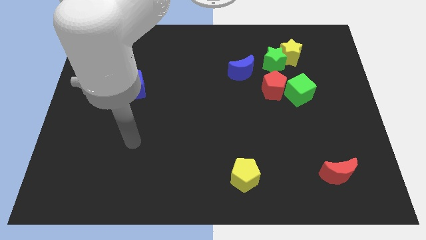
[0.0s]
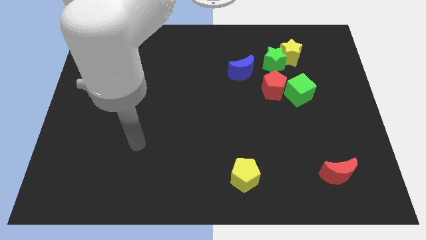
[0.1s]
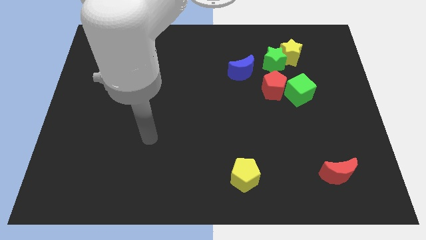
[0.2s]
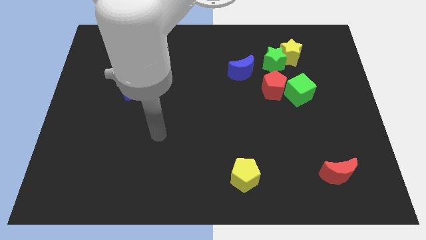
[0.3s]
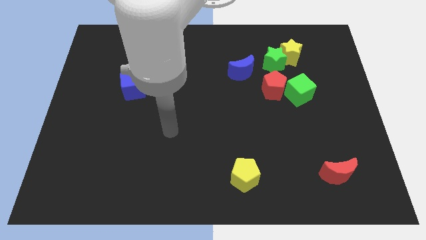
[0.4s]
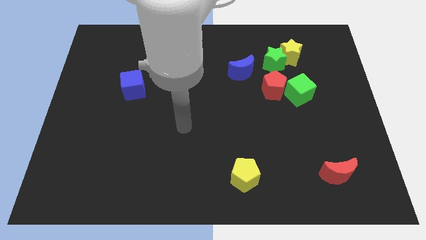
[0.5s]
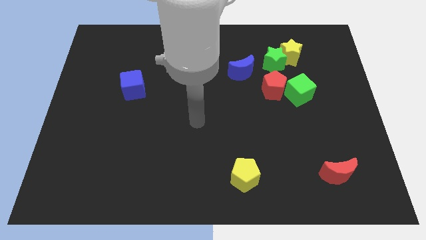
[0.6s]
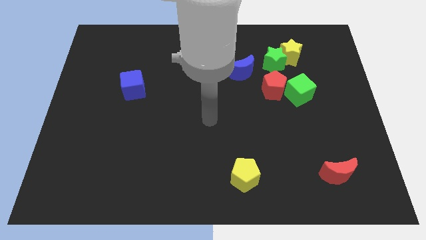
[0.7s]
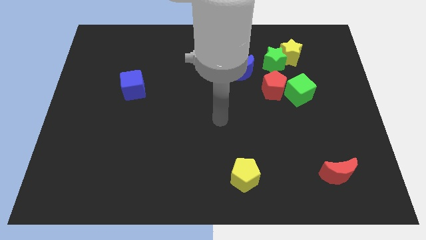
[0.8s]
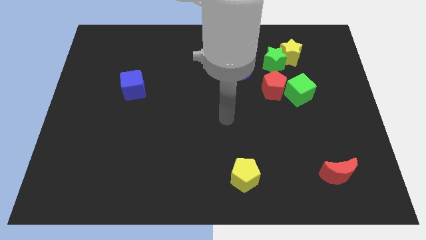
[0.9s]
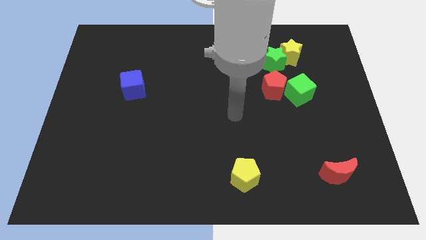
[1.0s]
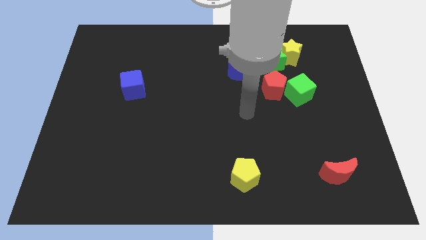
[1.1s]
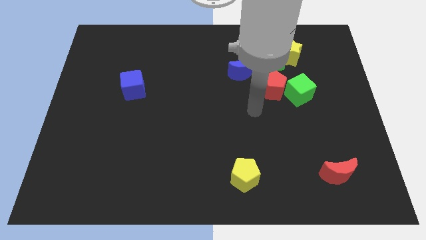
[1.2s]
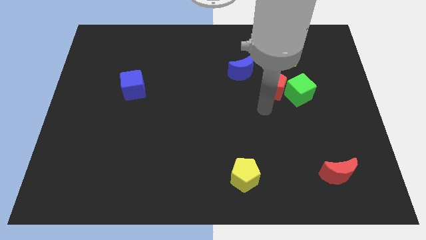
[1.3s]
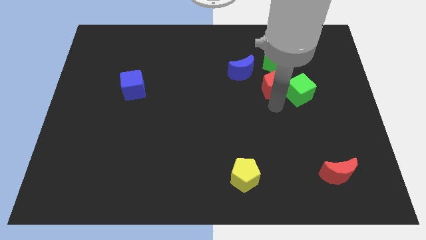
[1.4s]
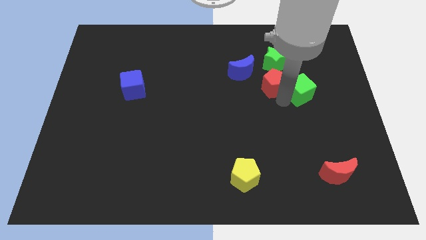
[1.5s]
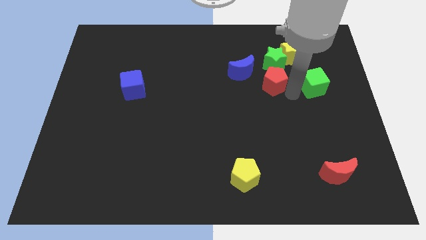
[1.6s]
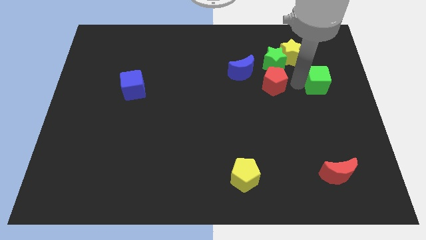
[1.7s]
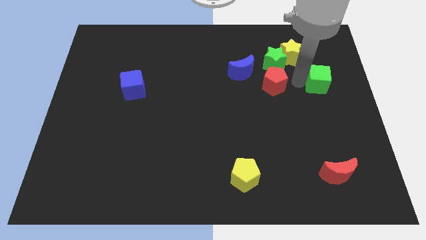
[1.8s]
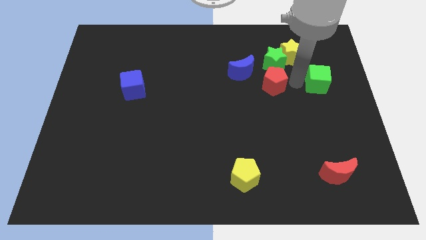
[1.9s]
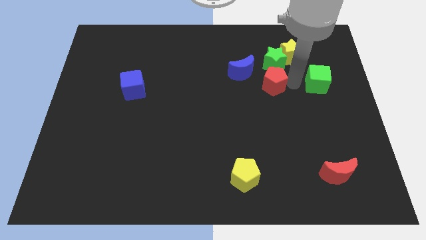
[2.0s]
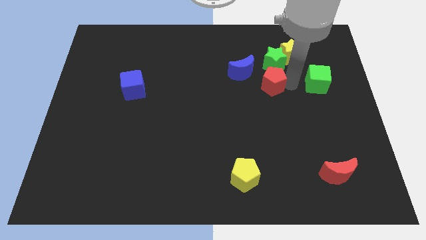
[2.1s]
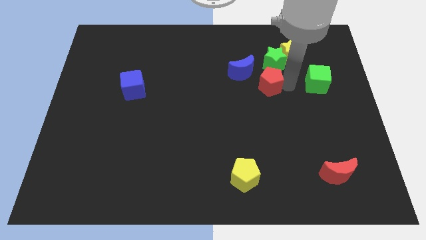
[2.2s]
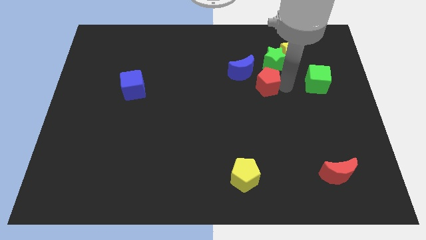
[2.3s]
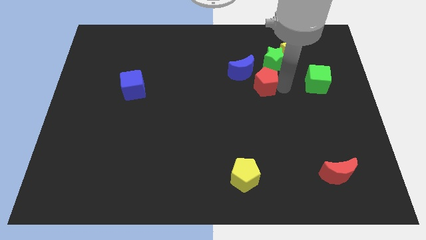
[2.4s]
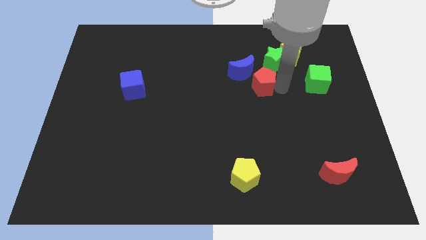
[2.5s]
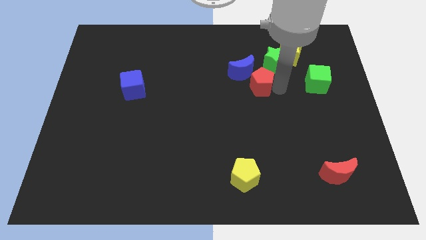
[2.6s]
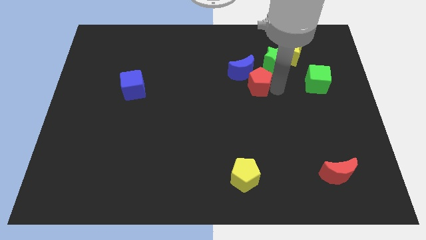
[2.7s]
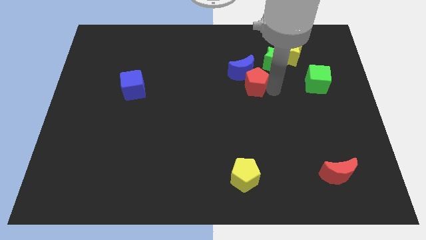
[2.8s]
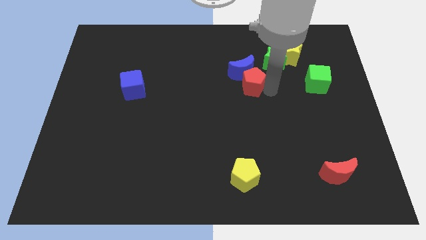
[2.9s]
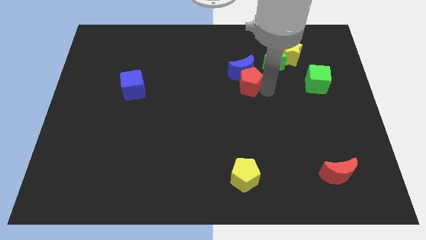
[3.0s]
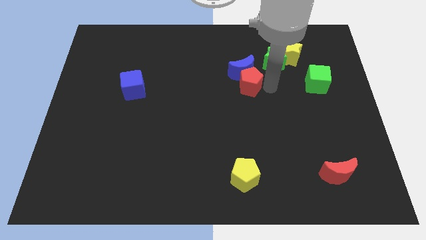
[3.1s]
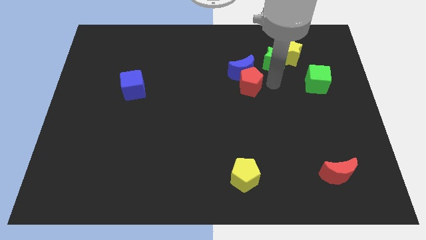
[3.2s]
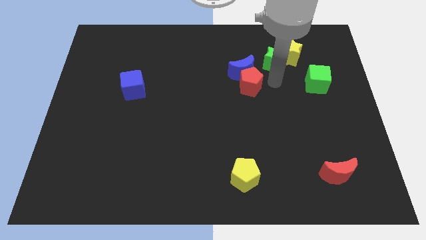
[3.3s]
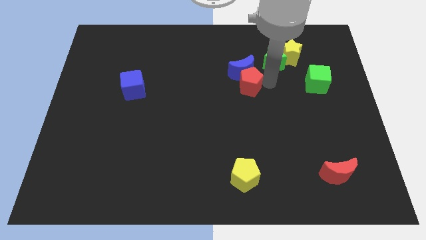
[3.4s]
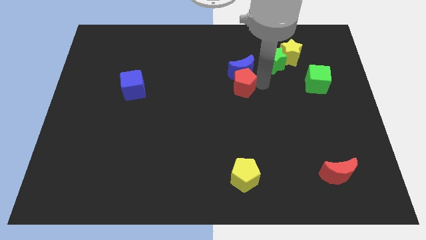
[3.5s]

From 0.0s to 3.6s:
slightly push the red pentagon to the left

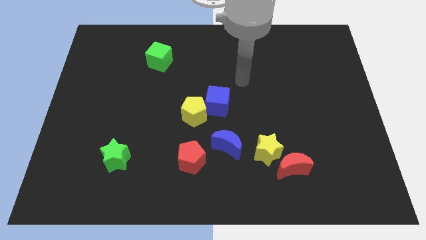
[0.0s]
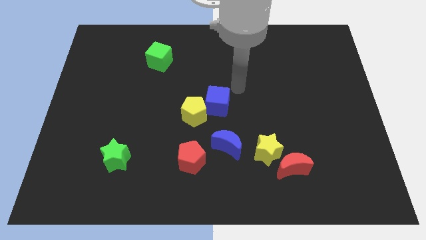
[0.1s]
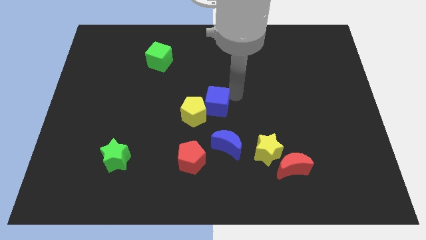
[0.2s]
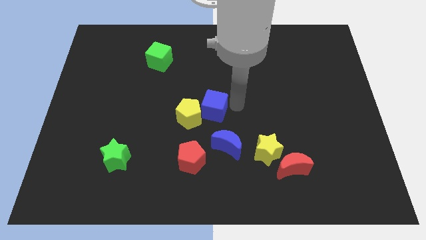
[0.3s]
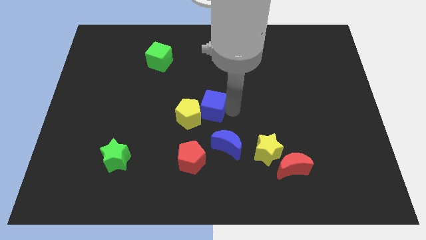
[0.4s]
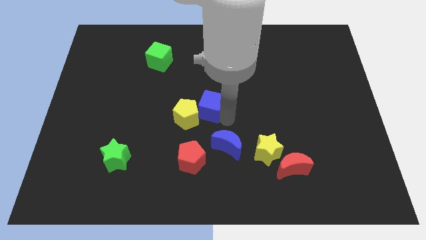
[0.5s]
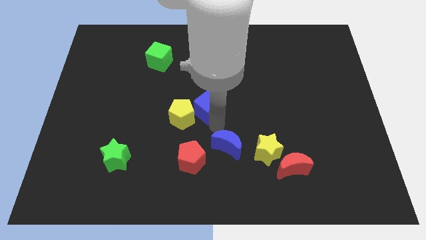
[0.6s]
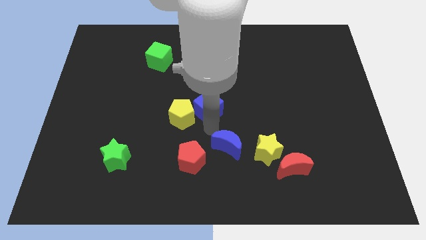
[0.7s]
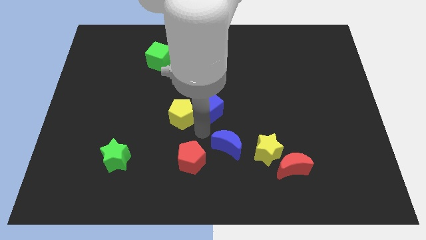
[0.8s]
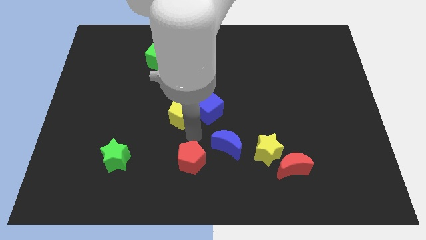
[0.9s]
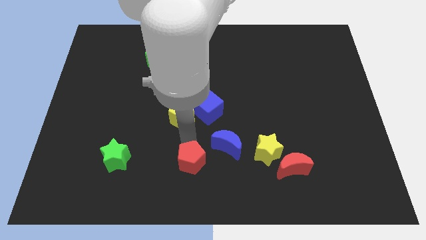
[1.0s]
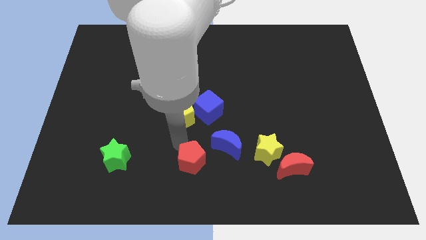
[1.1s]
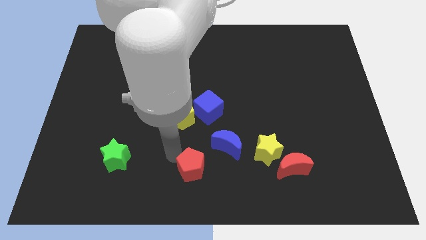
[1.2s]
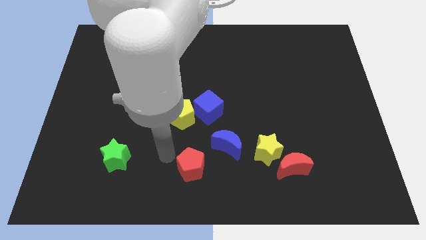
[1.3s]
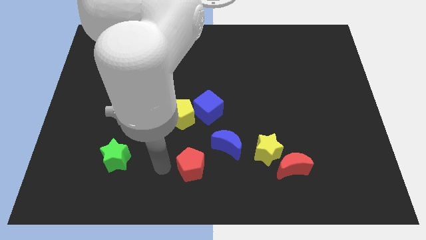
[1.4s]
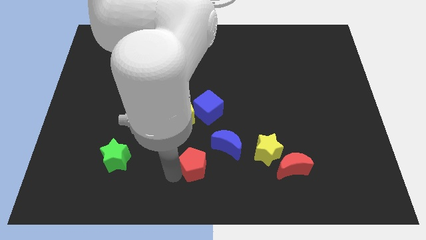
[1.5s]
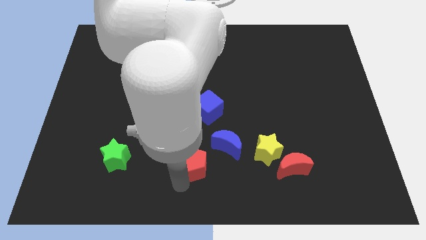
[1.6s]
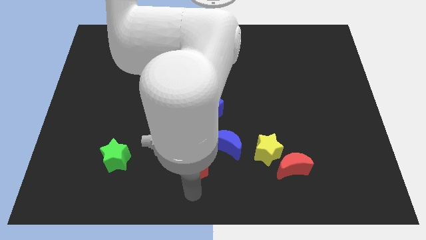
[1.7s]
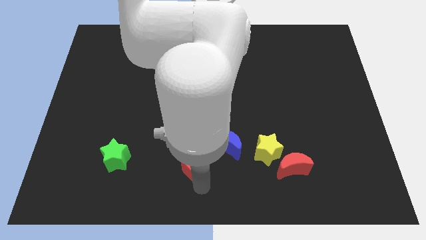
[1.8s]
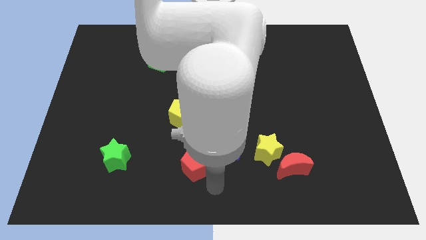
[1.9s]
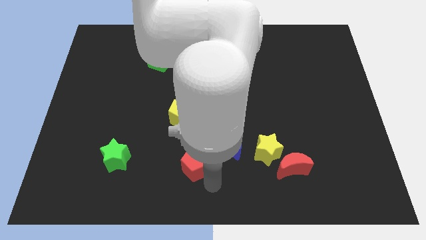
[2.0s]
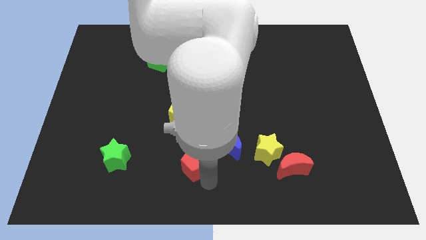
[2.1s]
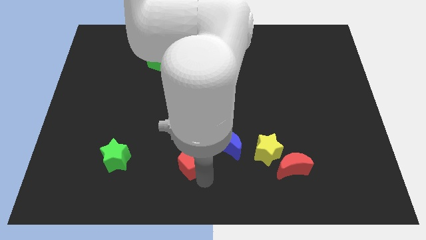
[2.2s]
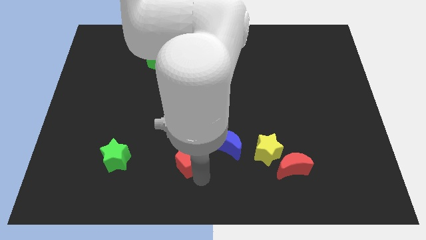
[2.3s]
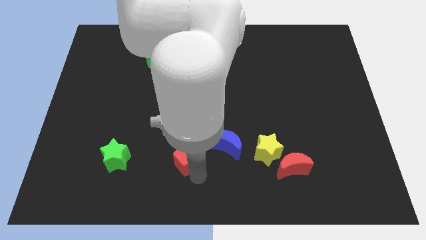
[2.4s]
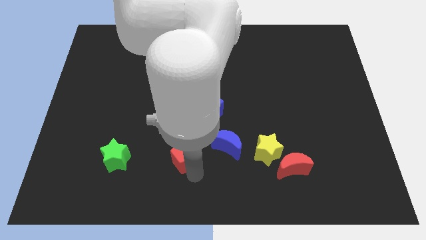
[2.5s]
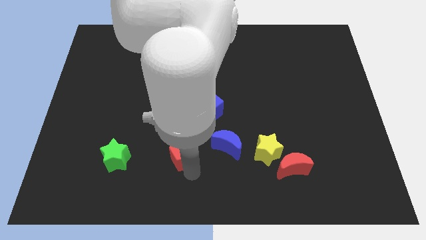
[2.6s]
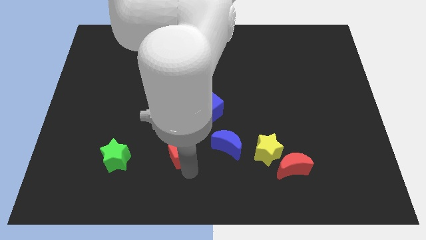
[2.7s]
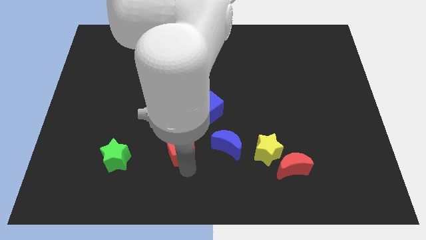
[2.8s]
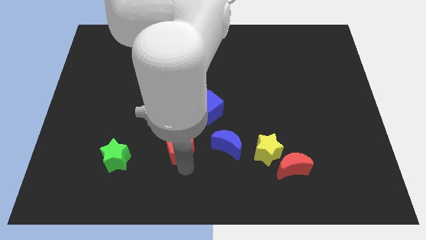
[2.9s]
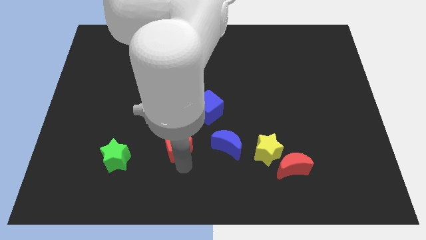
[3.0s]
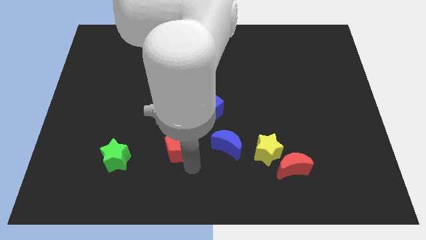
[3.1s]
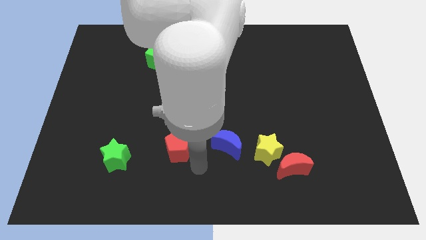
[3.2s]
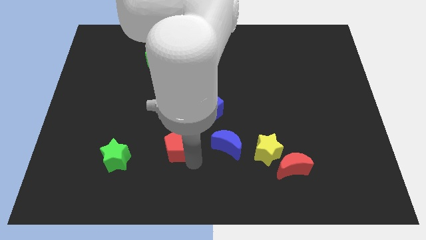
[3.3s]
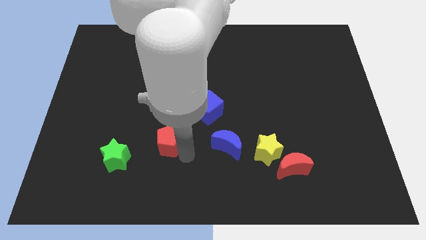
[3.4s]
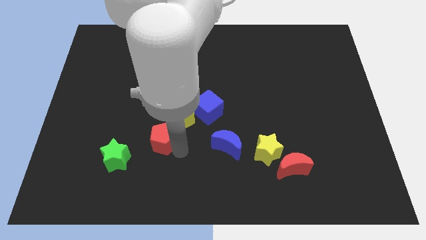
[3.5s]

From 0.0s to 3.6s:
slightly slide the red pentagon upwards and then left

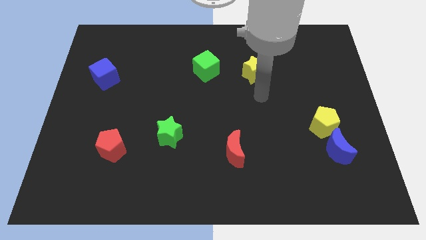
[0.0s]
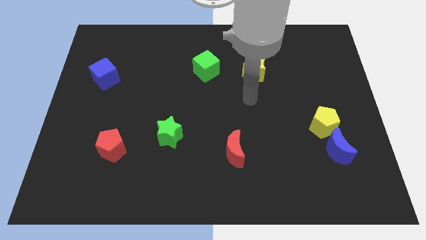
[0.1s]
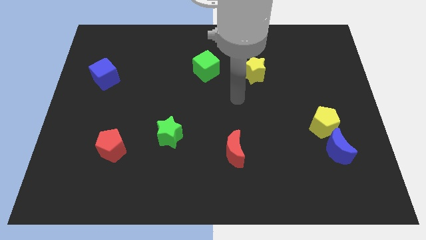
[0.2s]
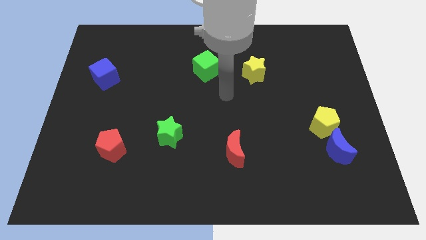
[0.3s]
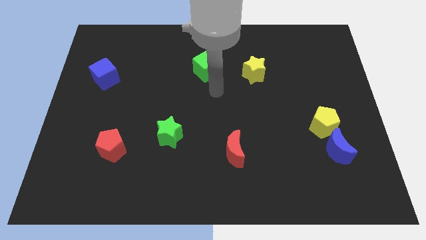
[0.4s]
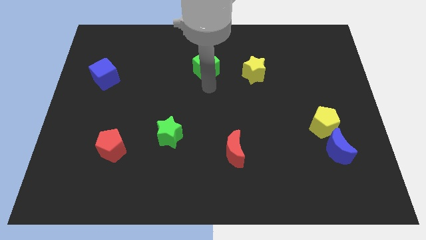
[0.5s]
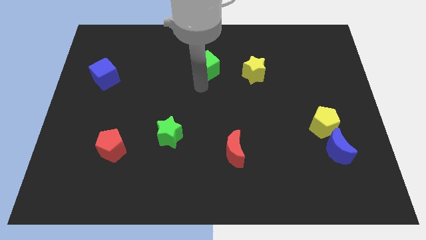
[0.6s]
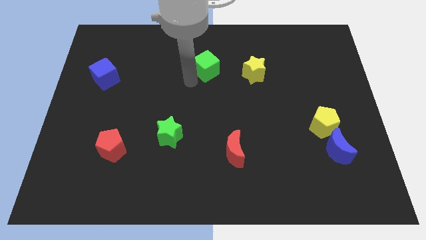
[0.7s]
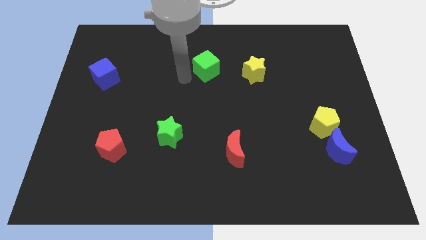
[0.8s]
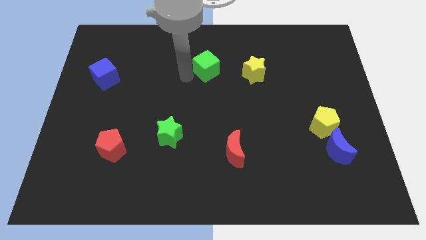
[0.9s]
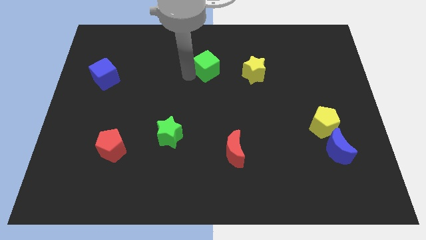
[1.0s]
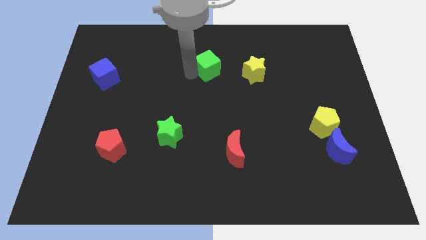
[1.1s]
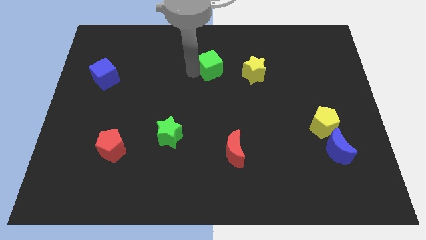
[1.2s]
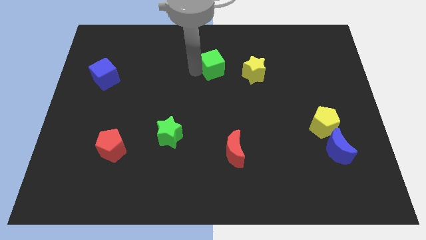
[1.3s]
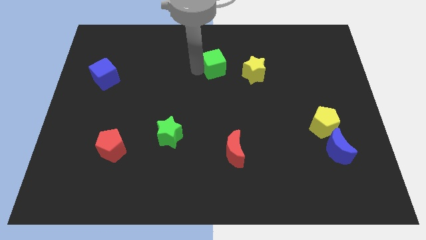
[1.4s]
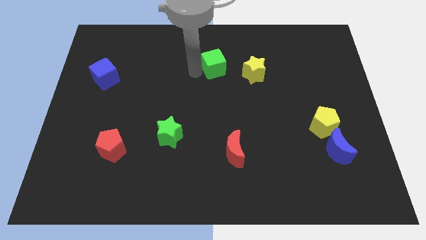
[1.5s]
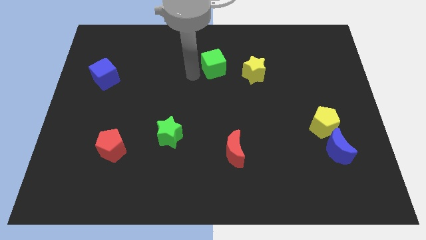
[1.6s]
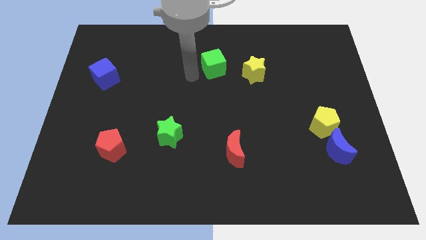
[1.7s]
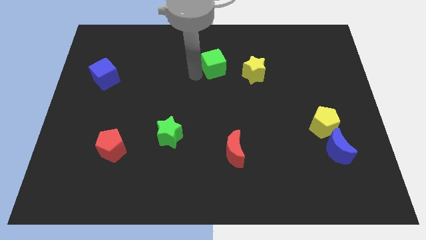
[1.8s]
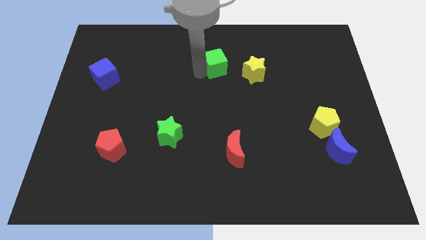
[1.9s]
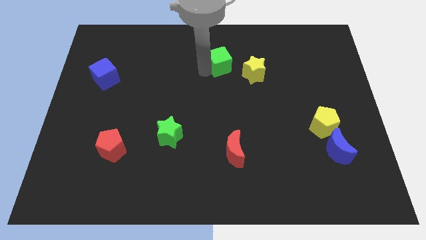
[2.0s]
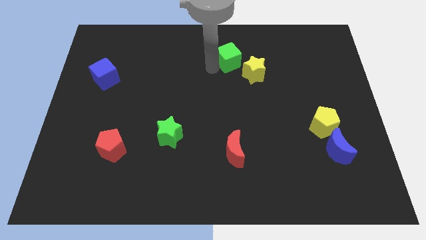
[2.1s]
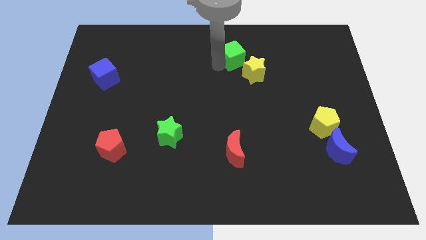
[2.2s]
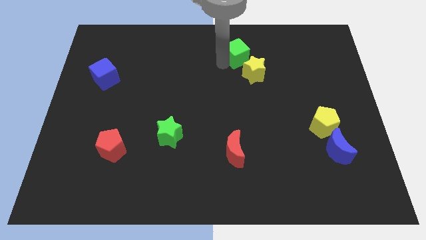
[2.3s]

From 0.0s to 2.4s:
slightly move the green cube right
